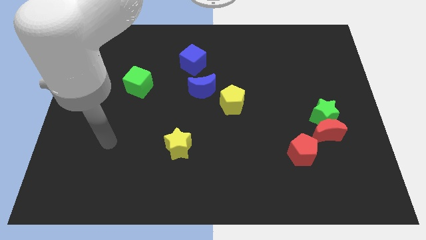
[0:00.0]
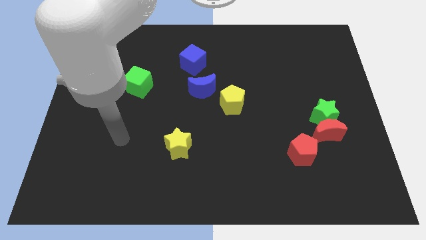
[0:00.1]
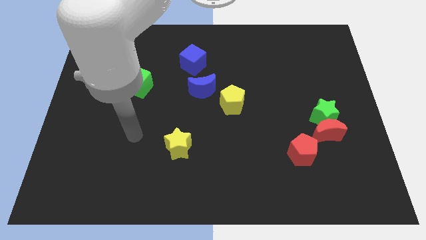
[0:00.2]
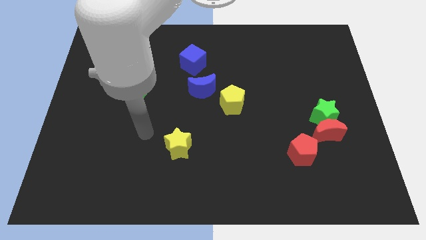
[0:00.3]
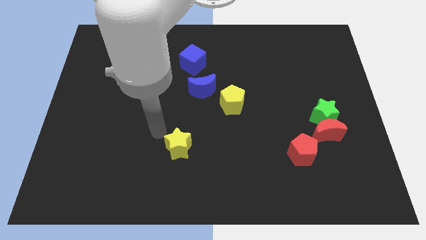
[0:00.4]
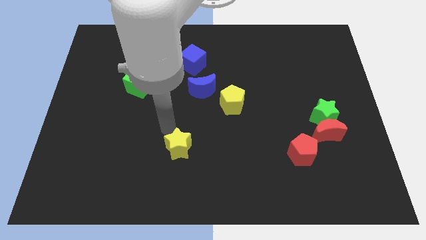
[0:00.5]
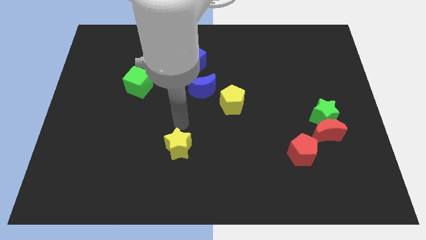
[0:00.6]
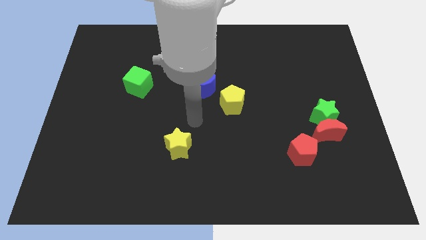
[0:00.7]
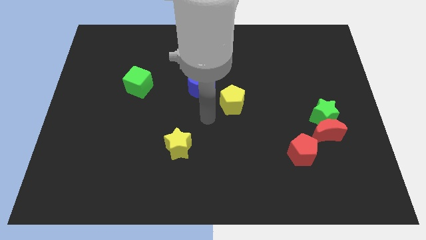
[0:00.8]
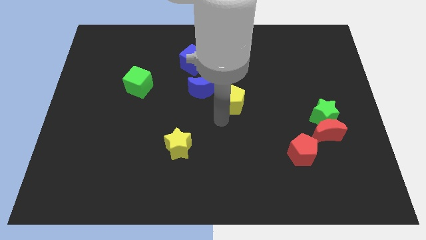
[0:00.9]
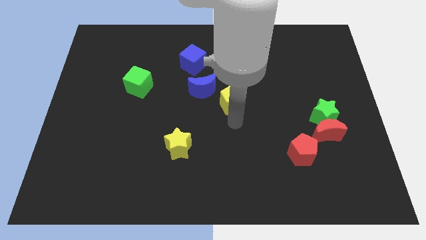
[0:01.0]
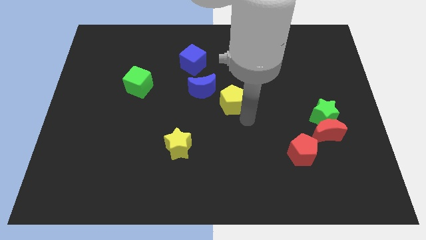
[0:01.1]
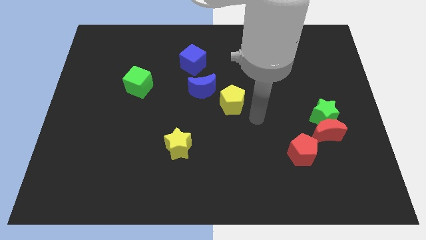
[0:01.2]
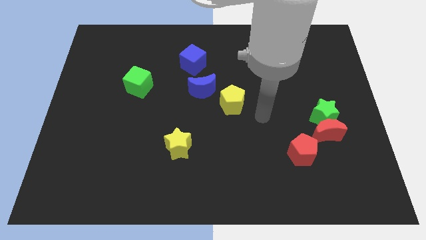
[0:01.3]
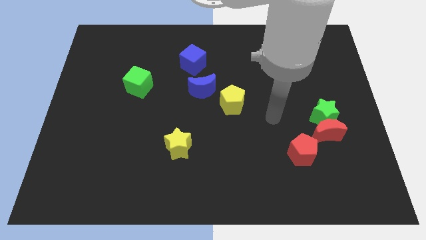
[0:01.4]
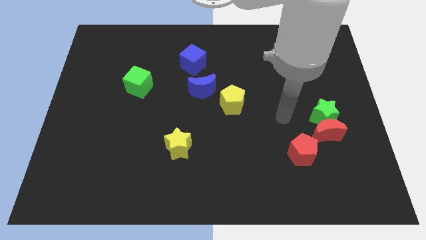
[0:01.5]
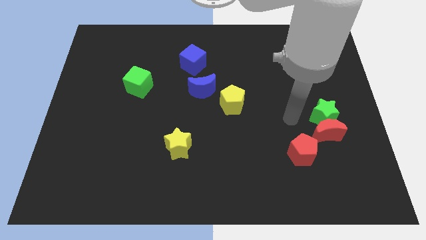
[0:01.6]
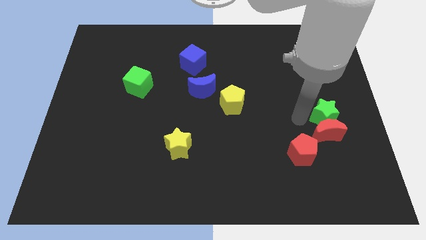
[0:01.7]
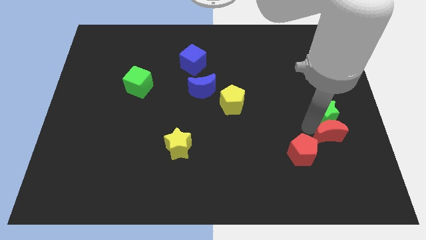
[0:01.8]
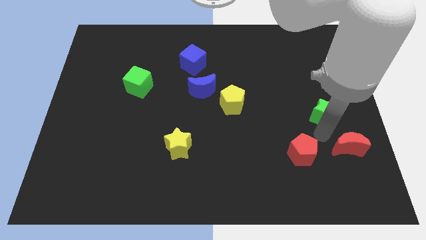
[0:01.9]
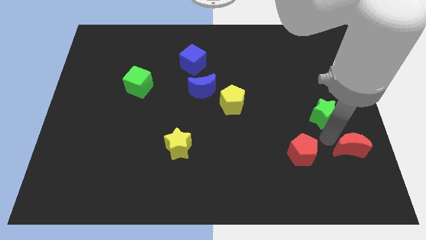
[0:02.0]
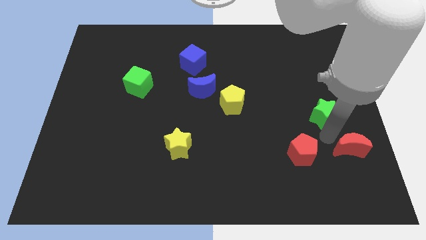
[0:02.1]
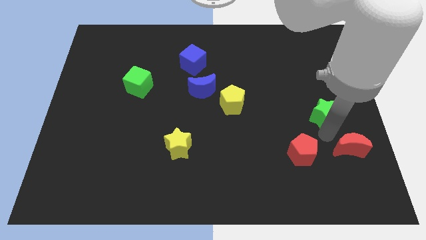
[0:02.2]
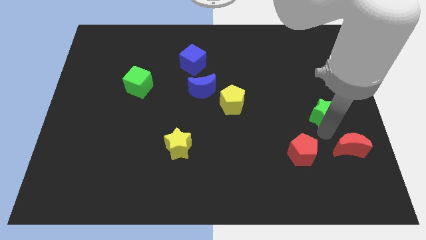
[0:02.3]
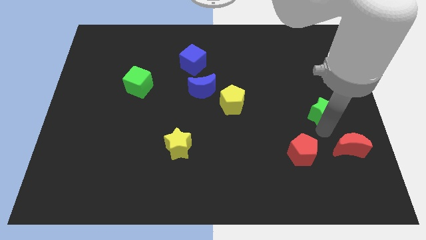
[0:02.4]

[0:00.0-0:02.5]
pull the green star apart from the red moon

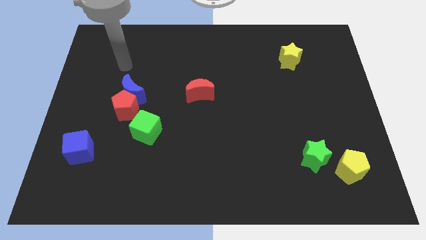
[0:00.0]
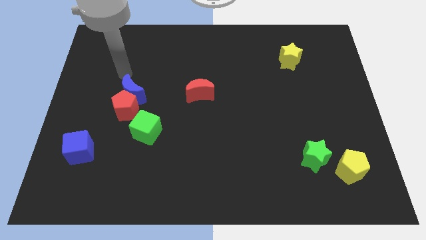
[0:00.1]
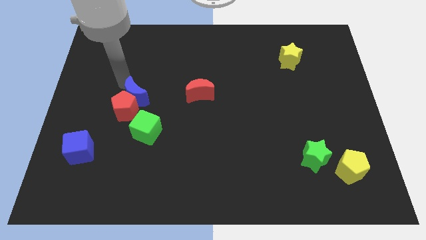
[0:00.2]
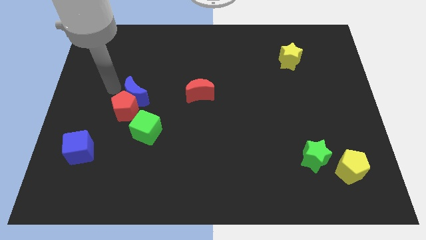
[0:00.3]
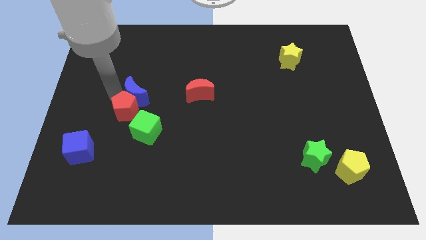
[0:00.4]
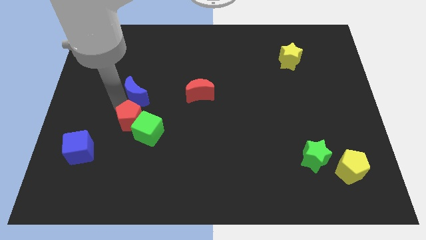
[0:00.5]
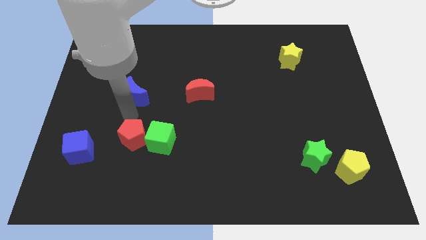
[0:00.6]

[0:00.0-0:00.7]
move the blue moon away from the red pentagon

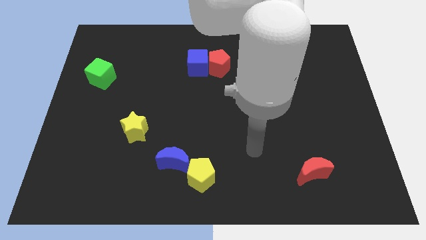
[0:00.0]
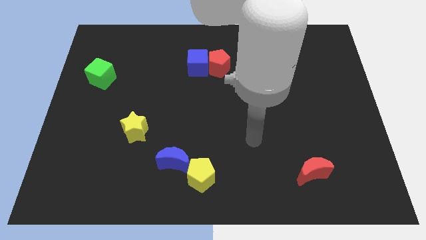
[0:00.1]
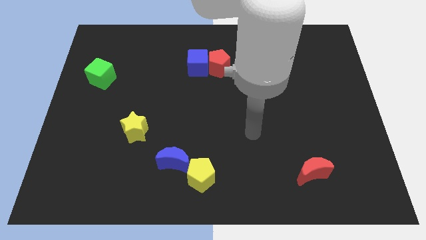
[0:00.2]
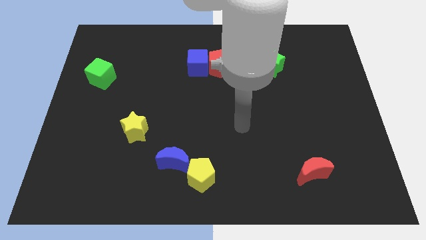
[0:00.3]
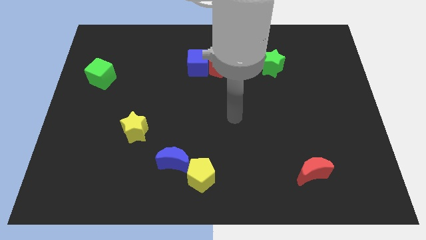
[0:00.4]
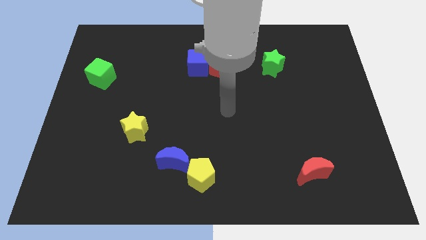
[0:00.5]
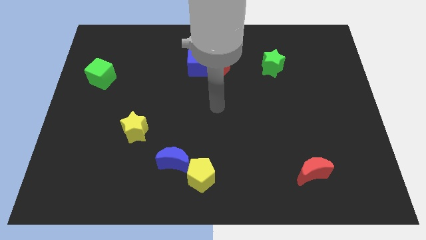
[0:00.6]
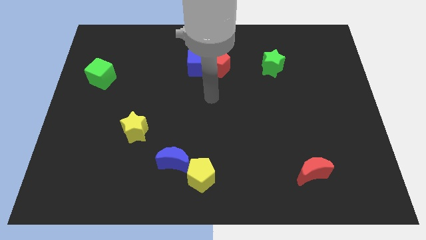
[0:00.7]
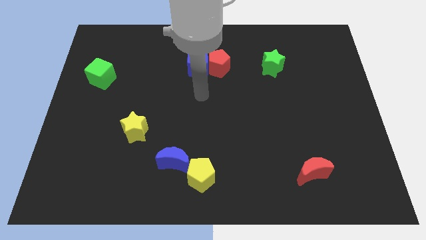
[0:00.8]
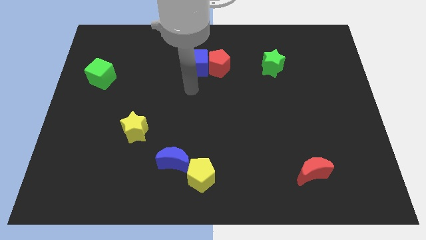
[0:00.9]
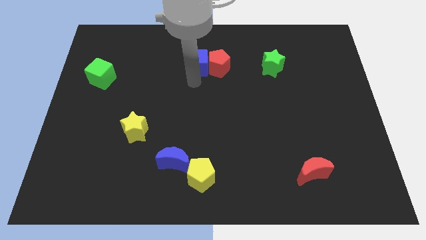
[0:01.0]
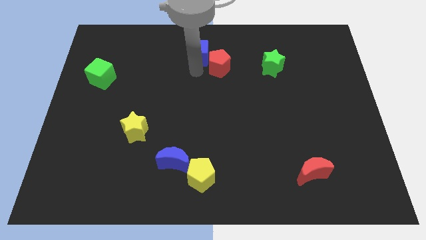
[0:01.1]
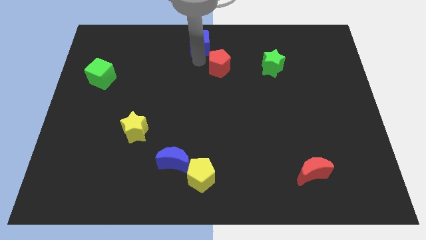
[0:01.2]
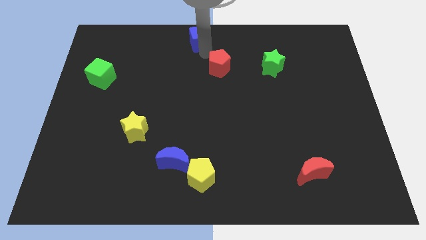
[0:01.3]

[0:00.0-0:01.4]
pull the red pentagon apart from the blue cube

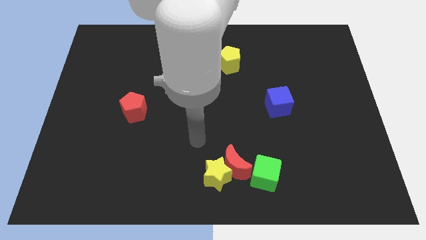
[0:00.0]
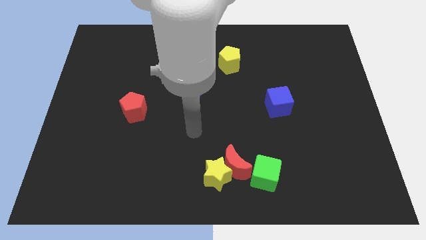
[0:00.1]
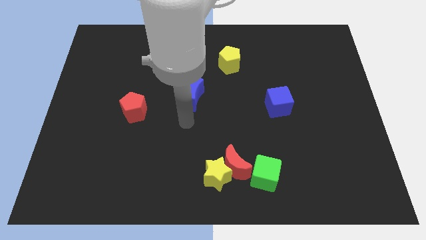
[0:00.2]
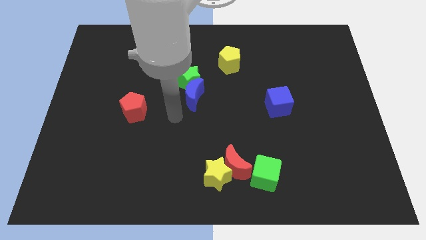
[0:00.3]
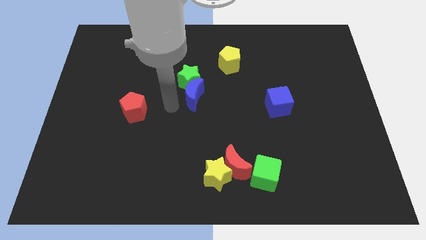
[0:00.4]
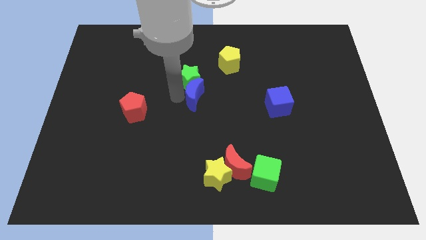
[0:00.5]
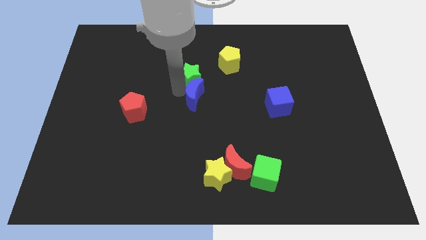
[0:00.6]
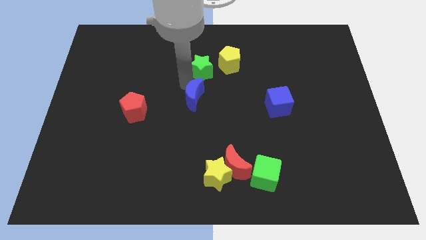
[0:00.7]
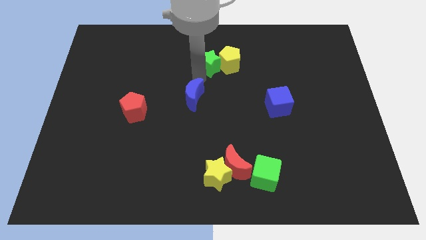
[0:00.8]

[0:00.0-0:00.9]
move the blue moon away from the green star

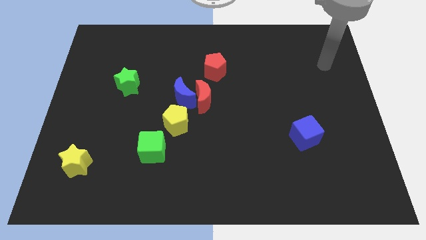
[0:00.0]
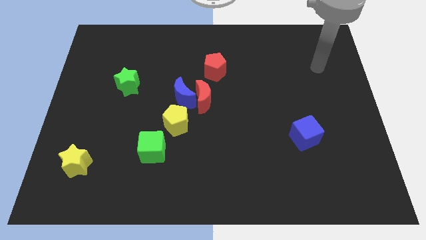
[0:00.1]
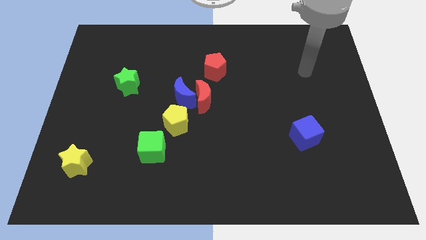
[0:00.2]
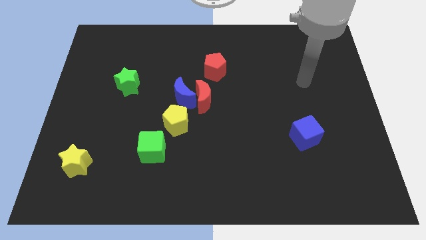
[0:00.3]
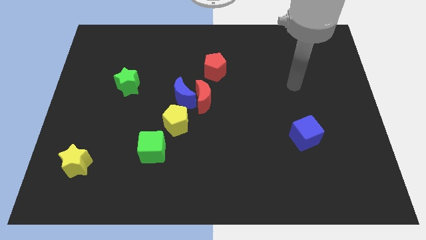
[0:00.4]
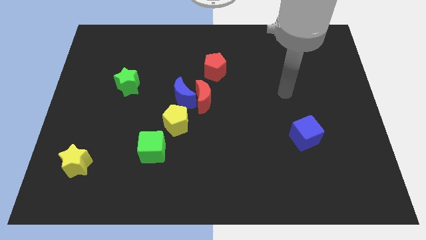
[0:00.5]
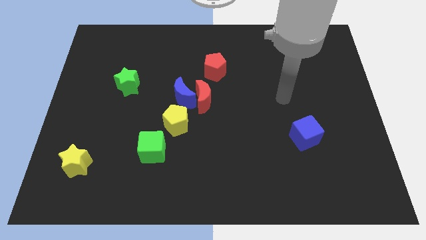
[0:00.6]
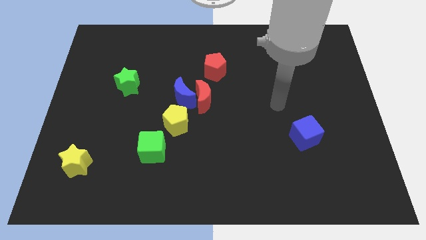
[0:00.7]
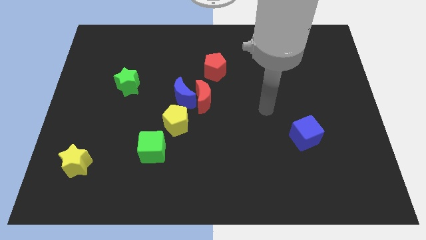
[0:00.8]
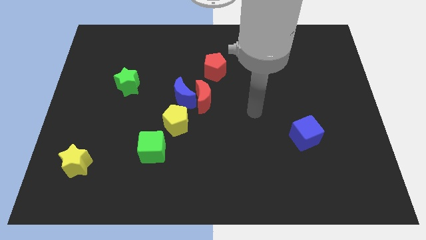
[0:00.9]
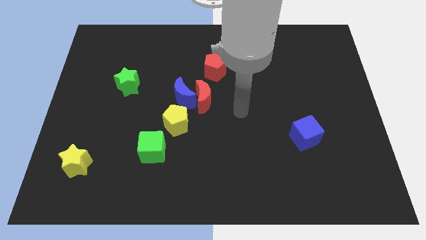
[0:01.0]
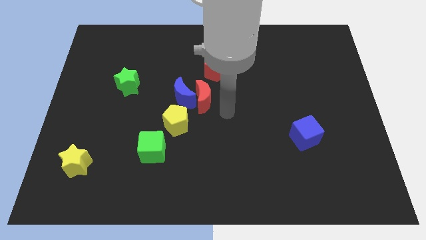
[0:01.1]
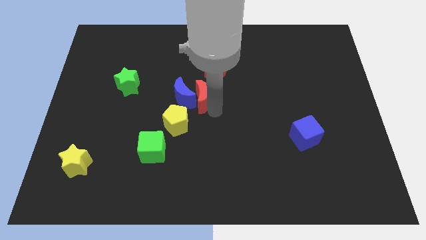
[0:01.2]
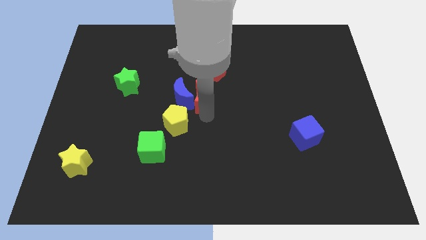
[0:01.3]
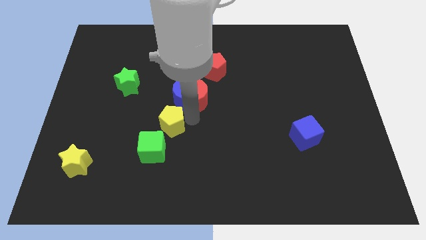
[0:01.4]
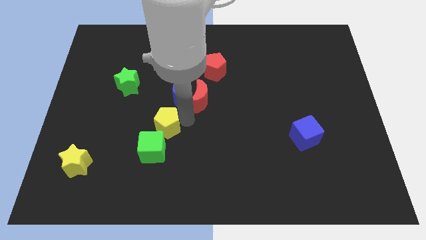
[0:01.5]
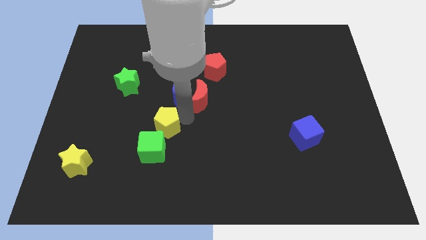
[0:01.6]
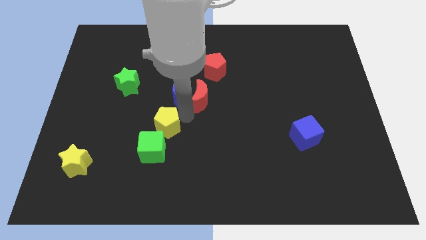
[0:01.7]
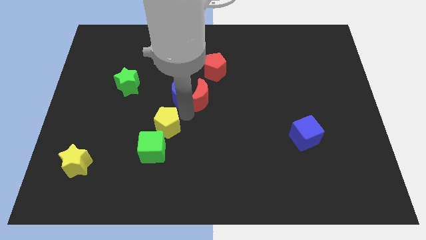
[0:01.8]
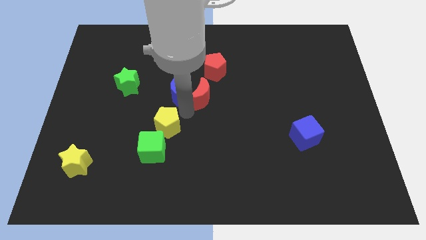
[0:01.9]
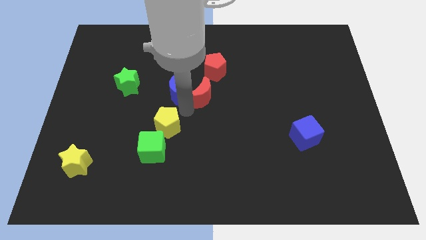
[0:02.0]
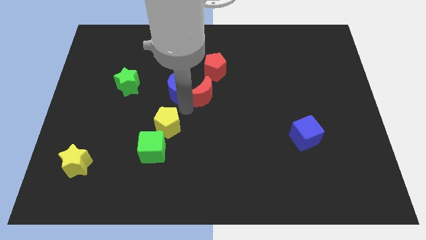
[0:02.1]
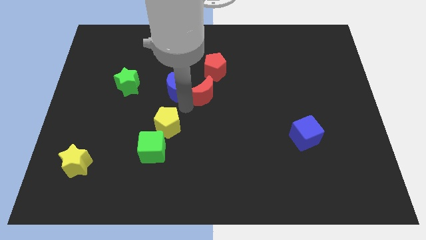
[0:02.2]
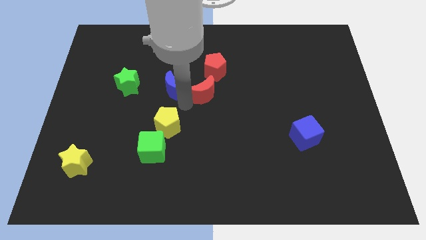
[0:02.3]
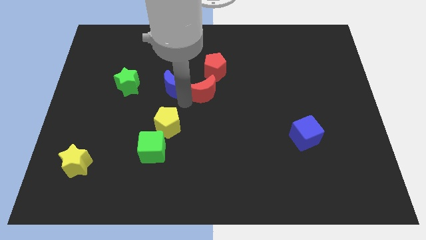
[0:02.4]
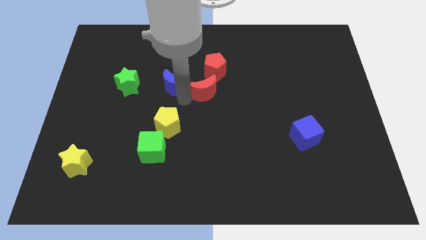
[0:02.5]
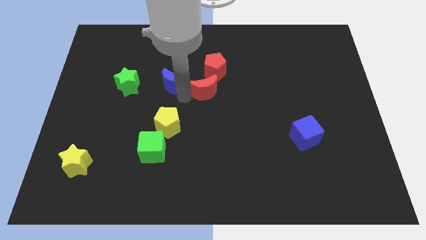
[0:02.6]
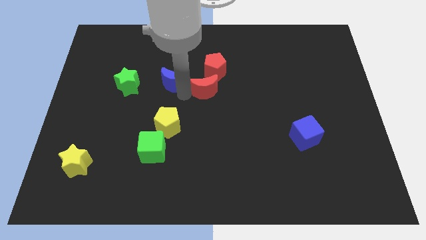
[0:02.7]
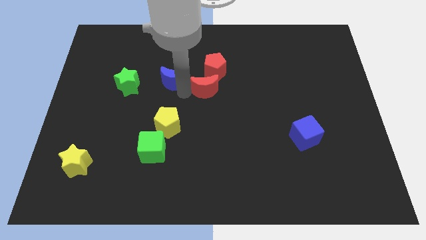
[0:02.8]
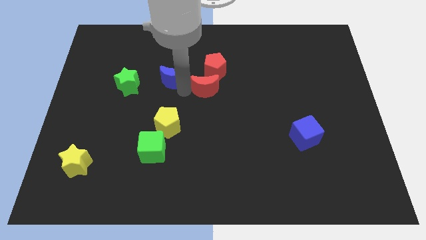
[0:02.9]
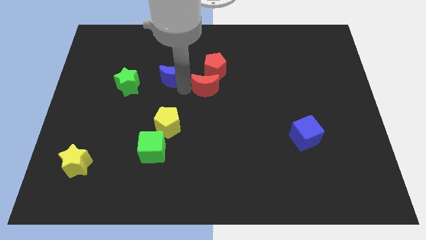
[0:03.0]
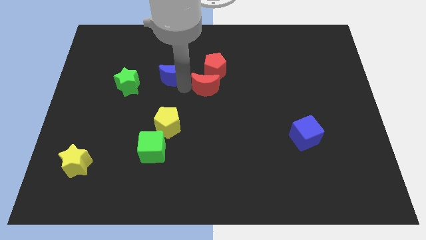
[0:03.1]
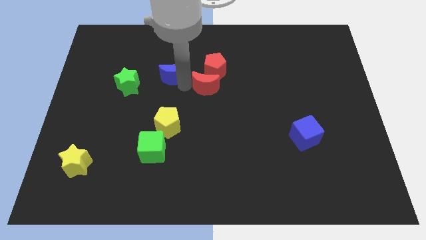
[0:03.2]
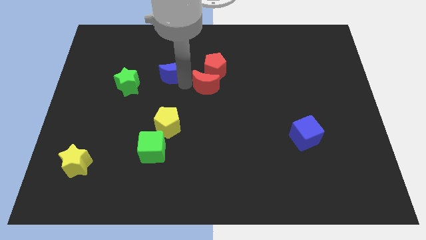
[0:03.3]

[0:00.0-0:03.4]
separate the blue moon from the red moon and yellow pentagon

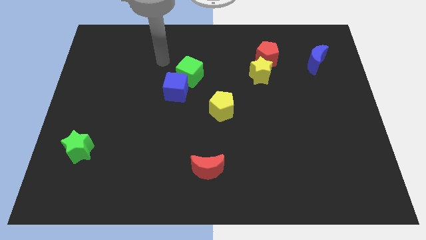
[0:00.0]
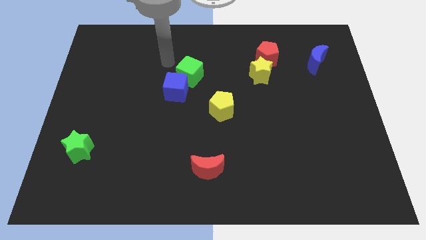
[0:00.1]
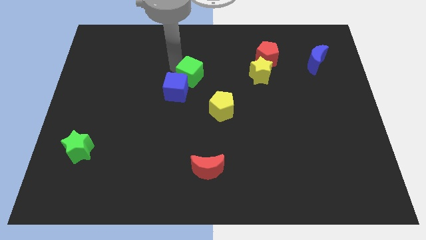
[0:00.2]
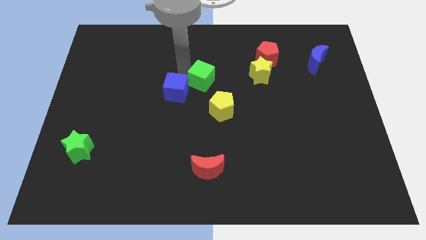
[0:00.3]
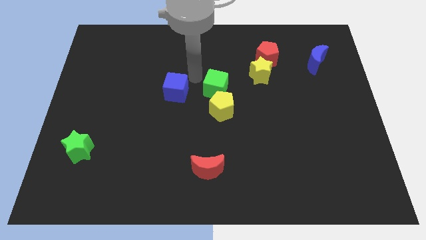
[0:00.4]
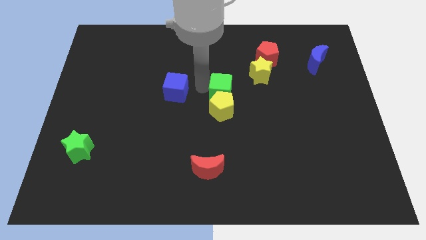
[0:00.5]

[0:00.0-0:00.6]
separate the blue cube from the green cube
